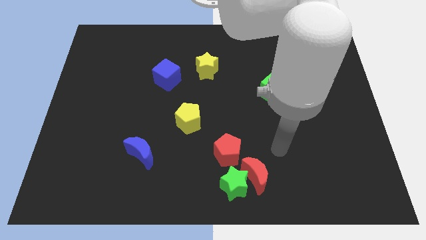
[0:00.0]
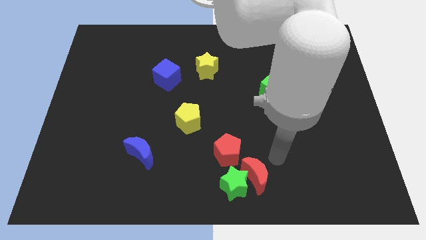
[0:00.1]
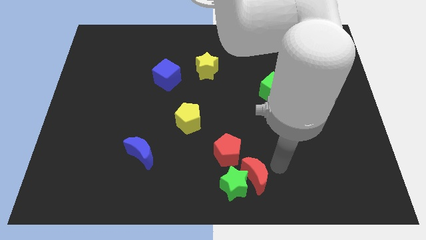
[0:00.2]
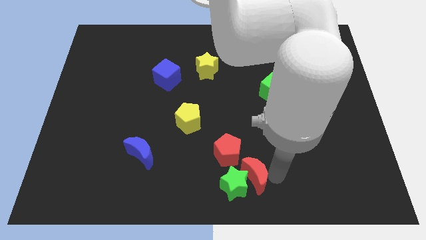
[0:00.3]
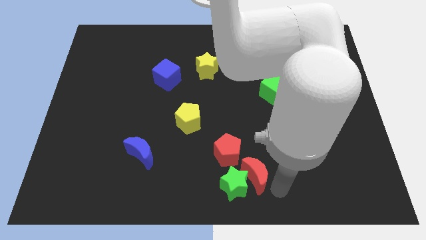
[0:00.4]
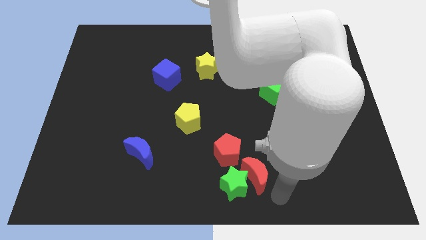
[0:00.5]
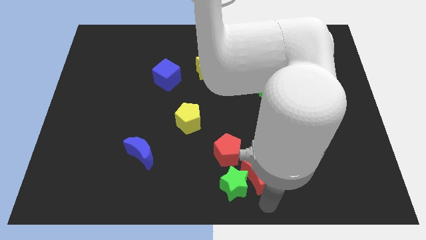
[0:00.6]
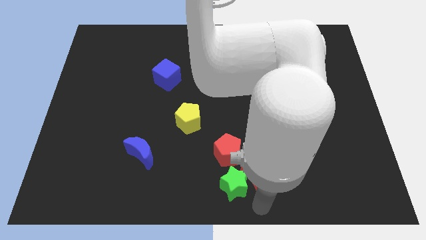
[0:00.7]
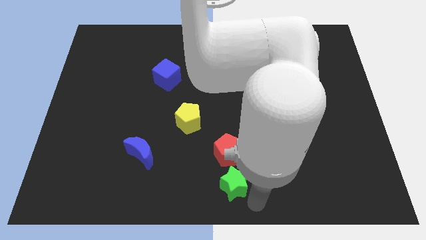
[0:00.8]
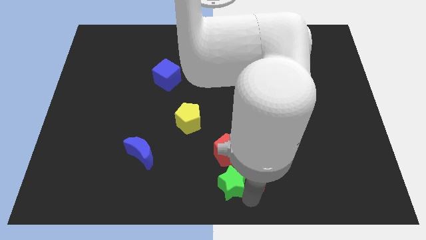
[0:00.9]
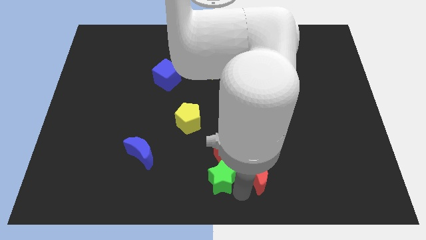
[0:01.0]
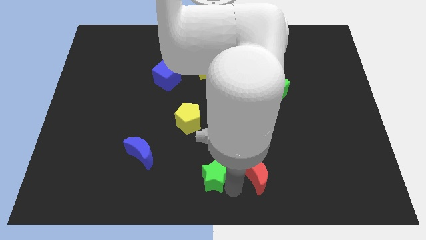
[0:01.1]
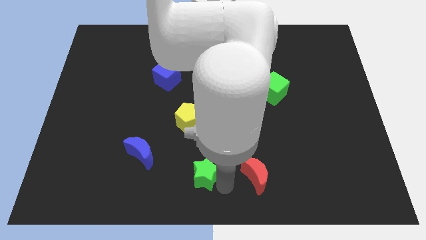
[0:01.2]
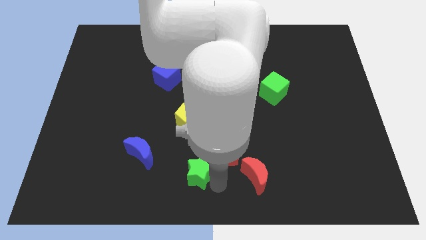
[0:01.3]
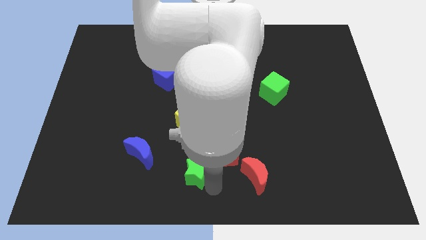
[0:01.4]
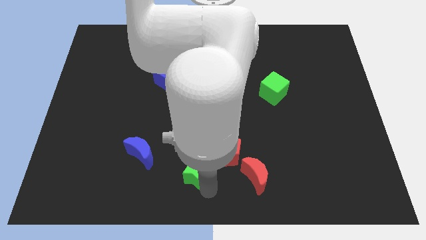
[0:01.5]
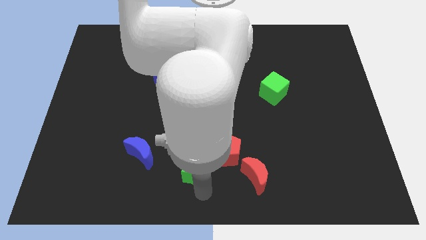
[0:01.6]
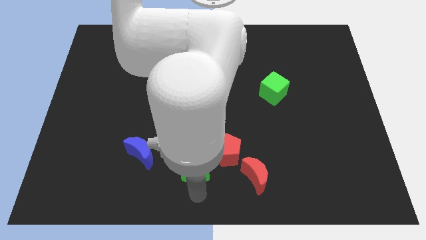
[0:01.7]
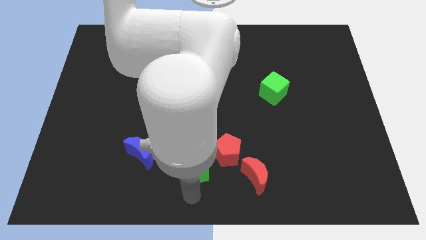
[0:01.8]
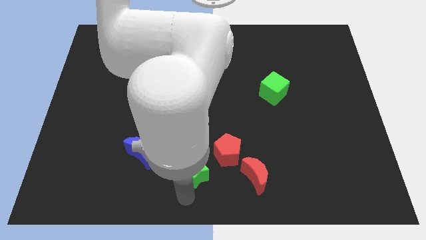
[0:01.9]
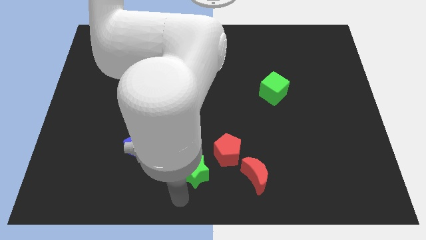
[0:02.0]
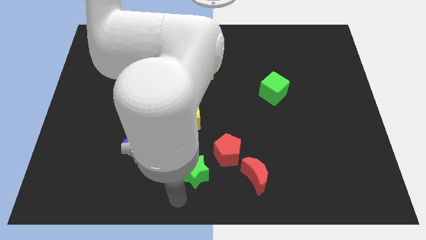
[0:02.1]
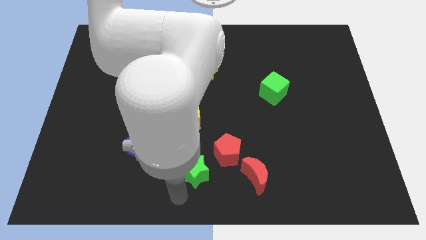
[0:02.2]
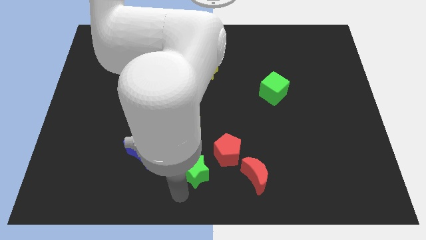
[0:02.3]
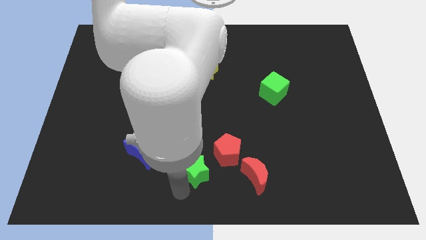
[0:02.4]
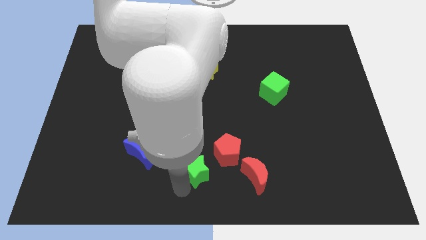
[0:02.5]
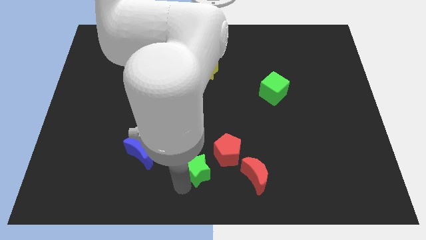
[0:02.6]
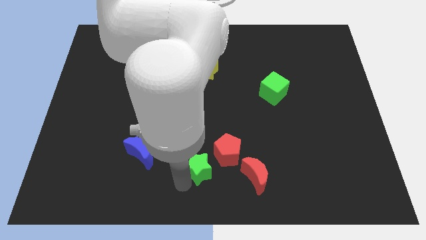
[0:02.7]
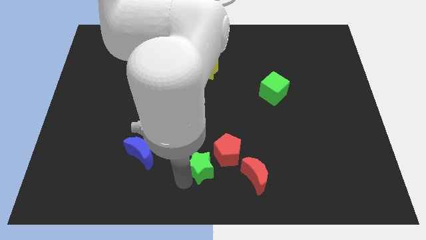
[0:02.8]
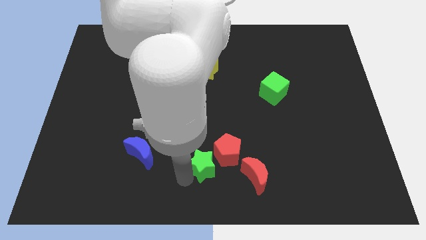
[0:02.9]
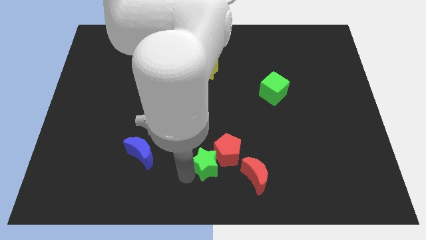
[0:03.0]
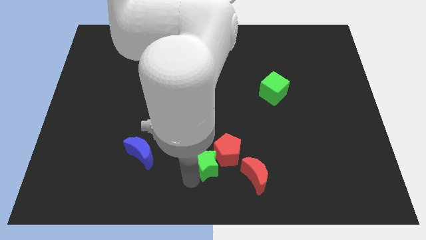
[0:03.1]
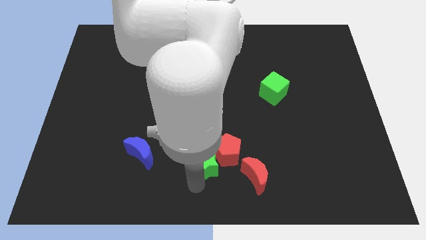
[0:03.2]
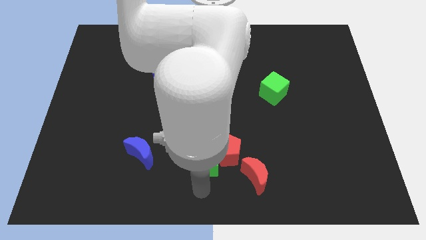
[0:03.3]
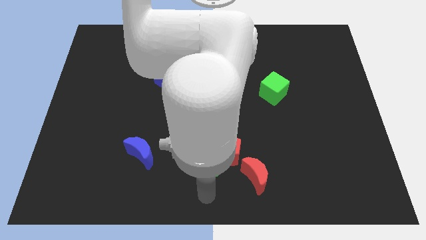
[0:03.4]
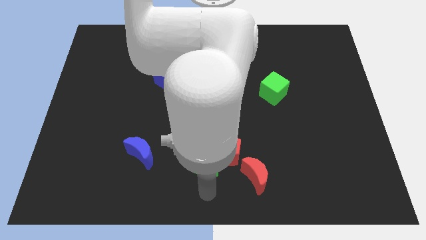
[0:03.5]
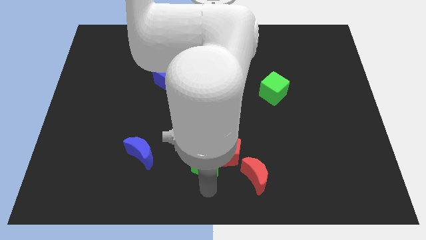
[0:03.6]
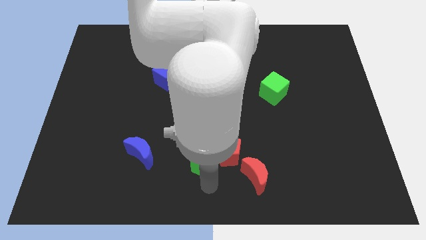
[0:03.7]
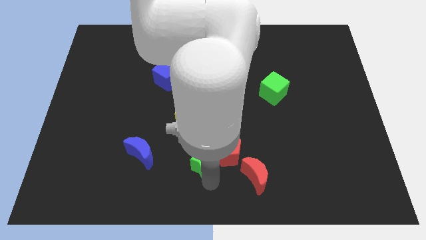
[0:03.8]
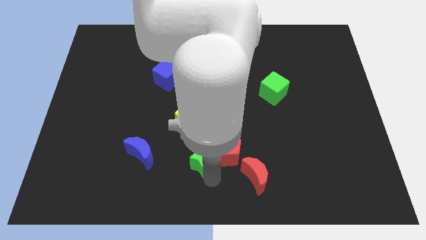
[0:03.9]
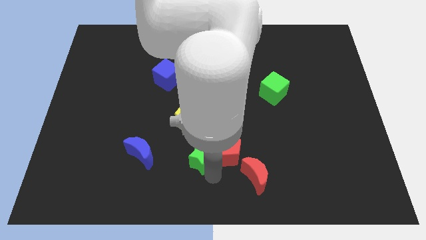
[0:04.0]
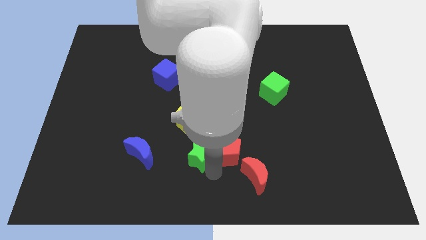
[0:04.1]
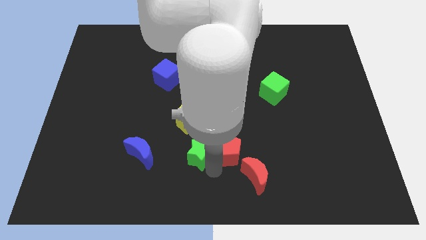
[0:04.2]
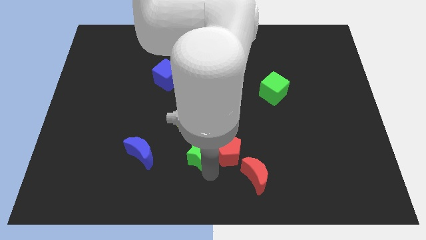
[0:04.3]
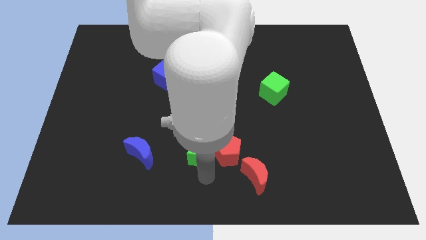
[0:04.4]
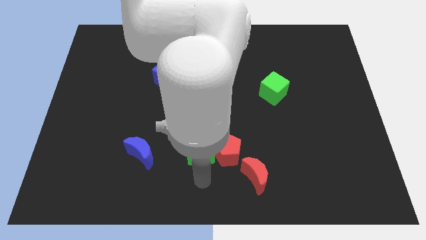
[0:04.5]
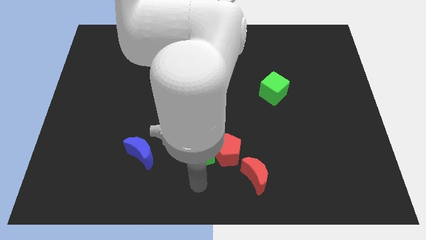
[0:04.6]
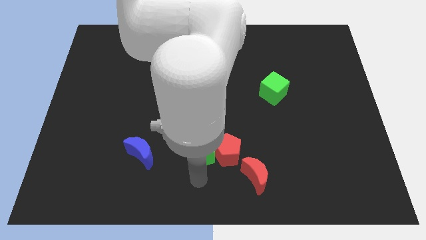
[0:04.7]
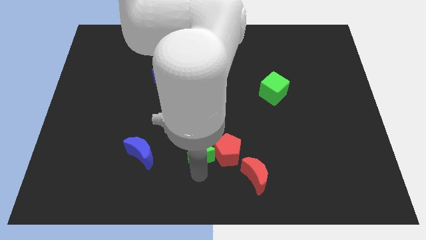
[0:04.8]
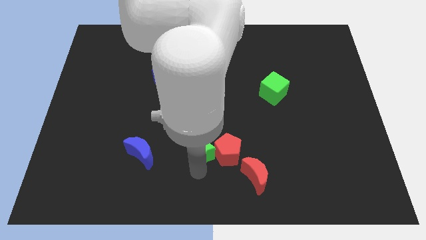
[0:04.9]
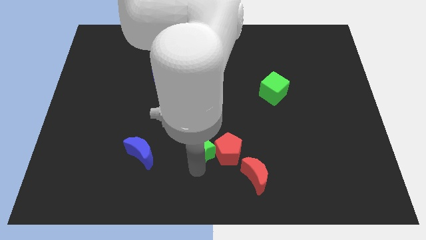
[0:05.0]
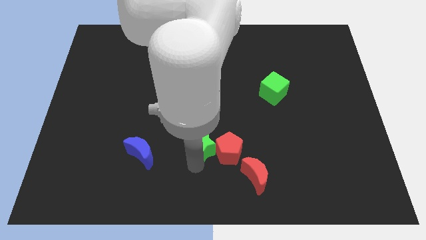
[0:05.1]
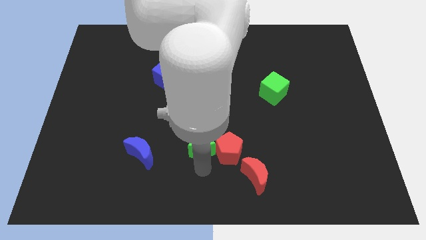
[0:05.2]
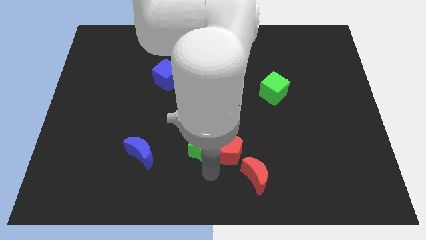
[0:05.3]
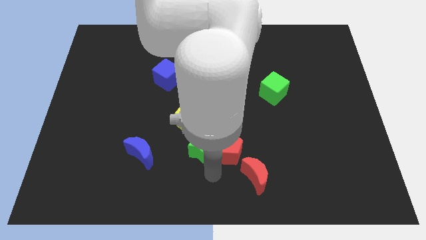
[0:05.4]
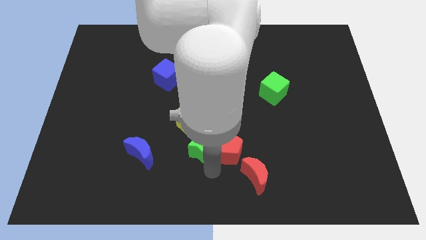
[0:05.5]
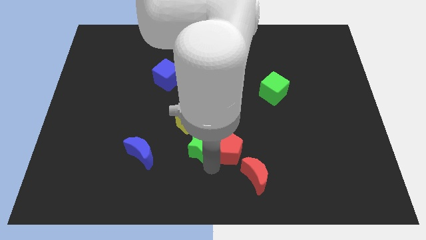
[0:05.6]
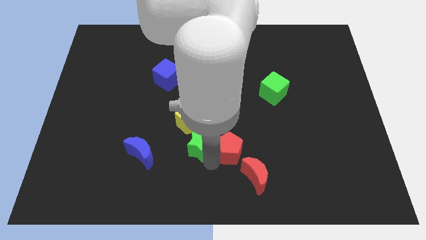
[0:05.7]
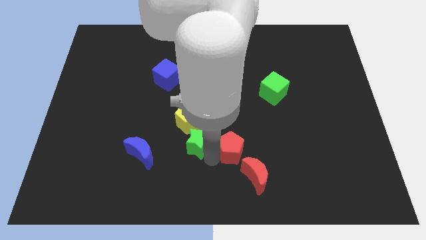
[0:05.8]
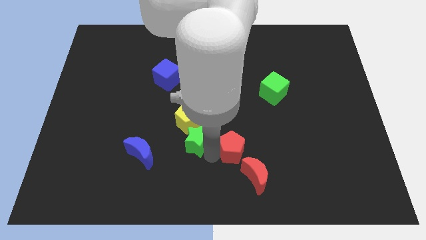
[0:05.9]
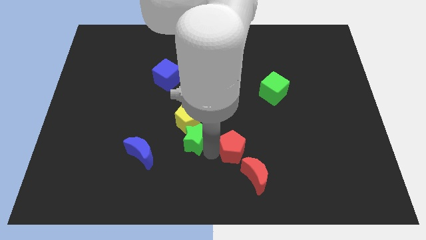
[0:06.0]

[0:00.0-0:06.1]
move the green star towards the yellow pentagon

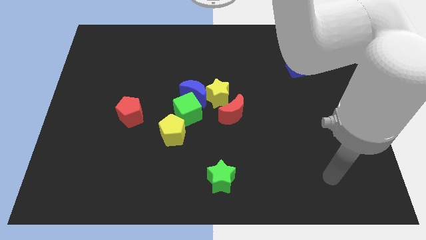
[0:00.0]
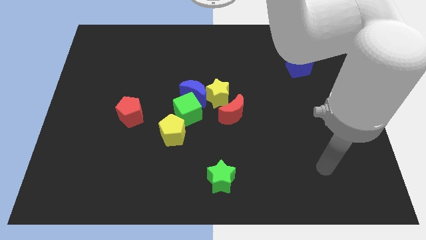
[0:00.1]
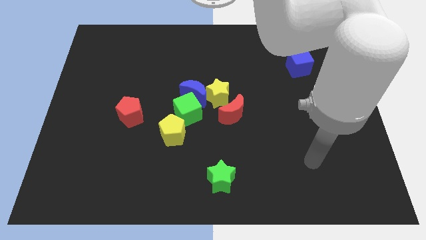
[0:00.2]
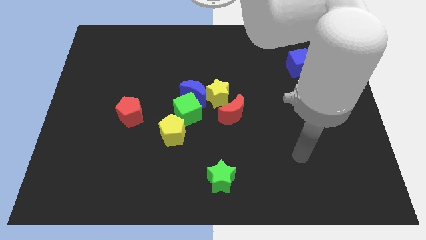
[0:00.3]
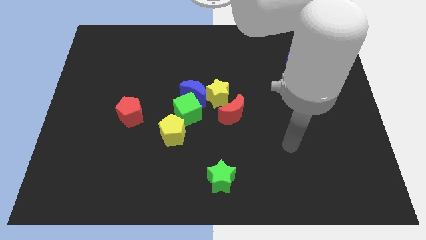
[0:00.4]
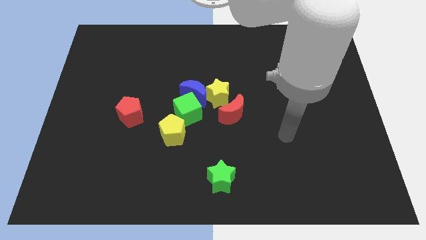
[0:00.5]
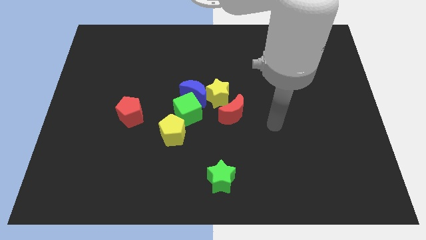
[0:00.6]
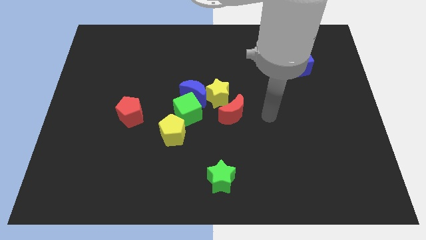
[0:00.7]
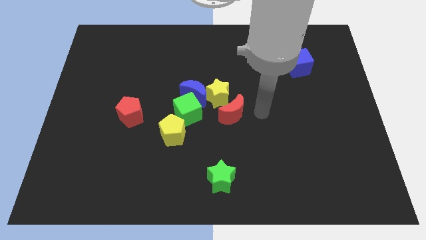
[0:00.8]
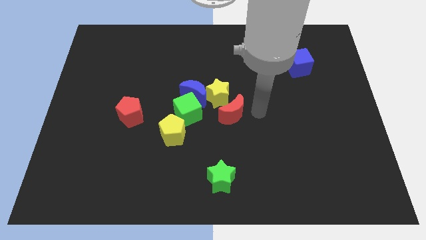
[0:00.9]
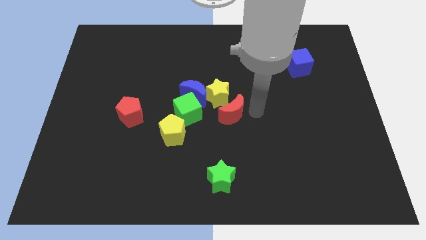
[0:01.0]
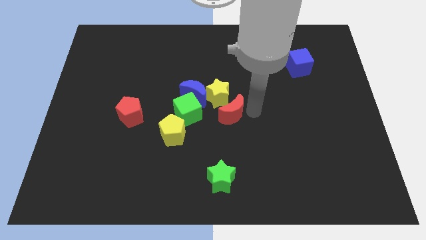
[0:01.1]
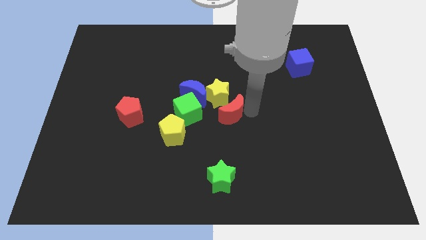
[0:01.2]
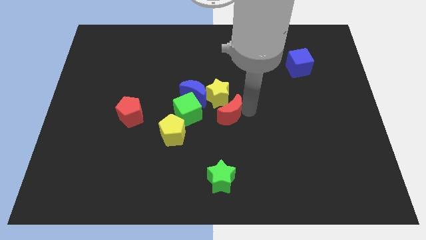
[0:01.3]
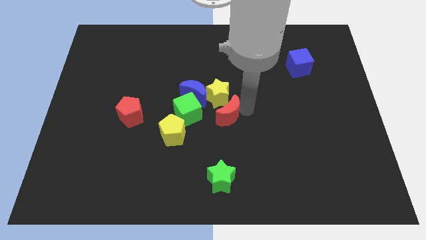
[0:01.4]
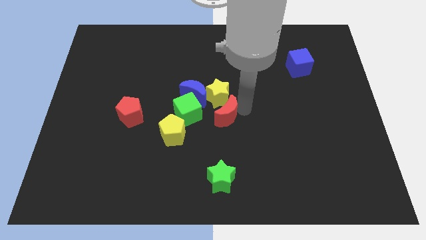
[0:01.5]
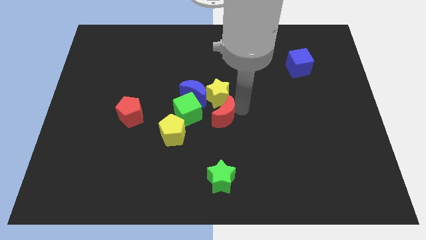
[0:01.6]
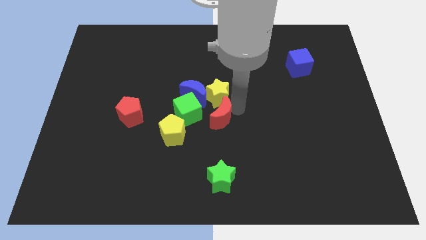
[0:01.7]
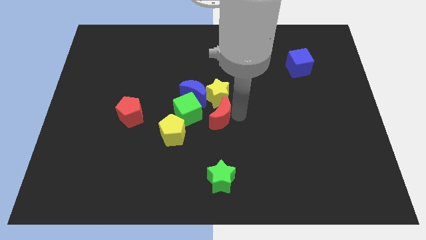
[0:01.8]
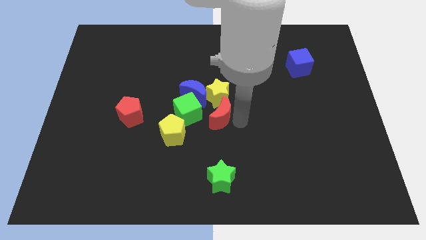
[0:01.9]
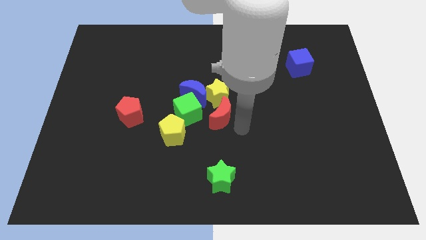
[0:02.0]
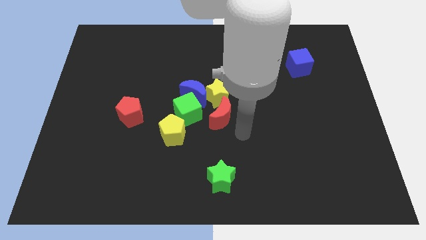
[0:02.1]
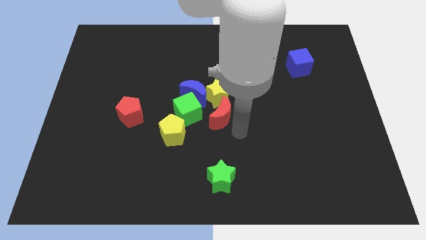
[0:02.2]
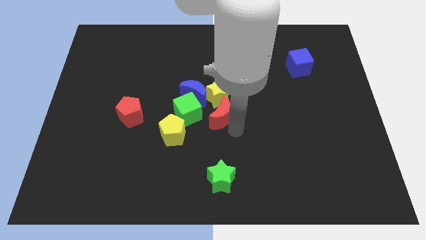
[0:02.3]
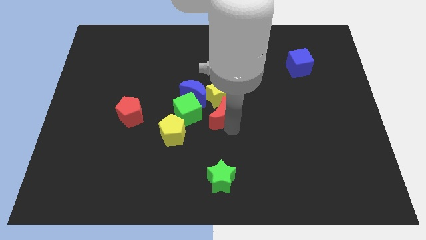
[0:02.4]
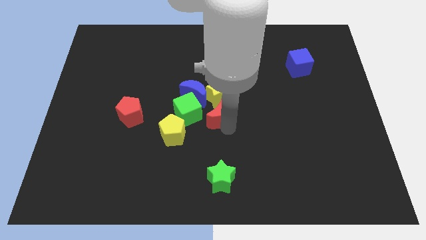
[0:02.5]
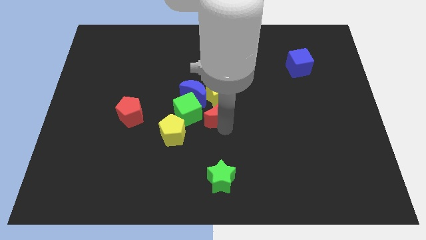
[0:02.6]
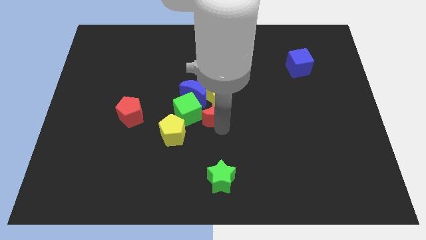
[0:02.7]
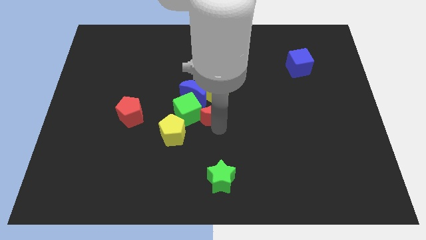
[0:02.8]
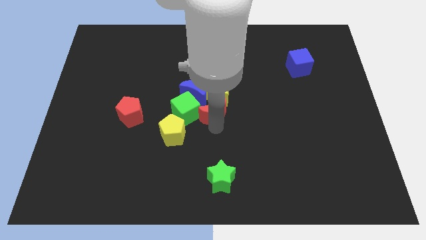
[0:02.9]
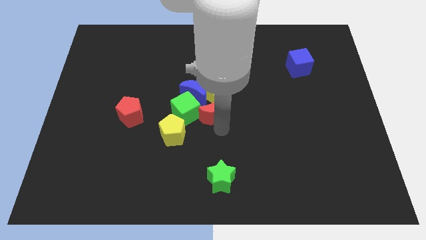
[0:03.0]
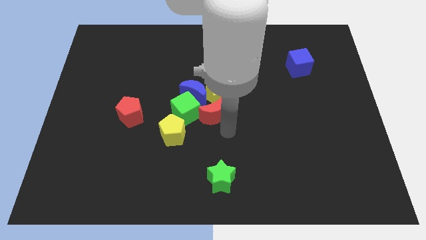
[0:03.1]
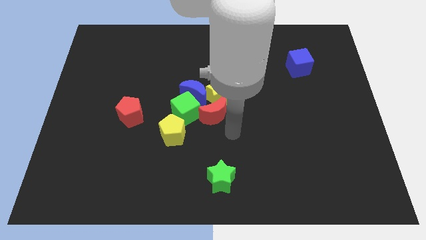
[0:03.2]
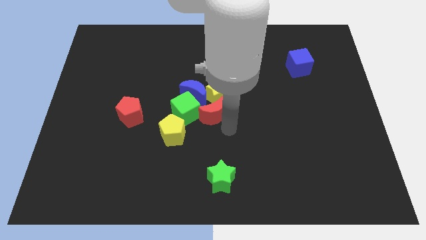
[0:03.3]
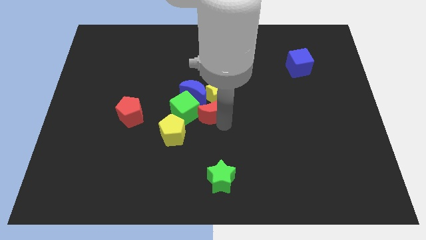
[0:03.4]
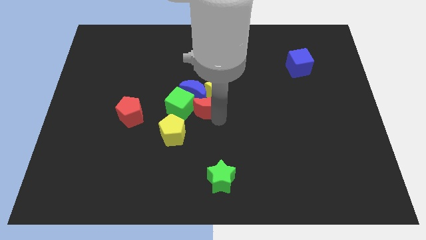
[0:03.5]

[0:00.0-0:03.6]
put the red moon next to the blue moon
